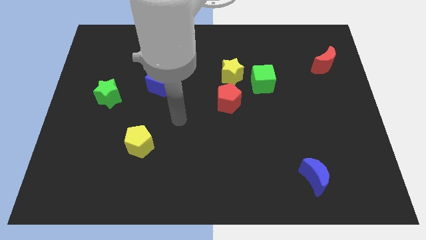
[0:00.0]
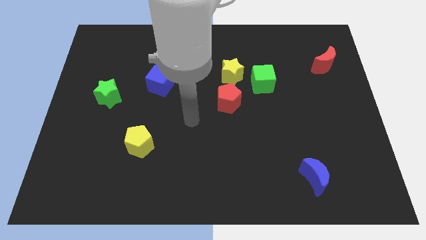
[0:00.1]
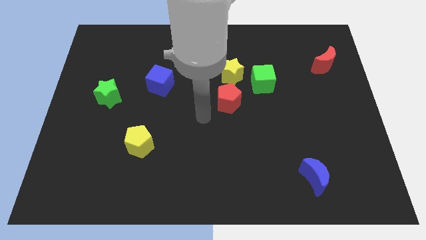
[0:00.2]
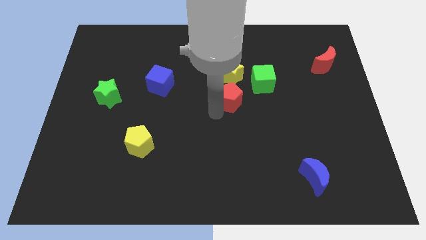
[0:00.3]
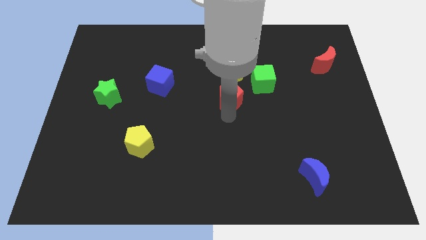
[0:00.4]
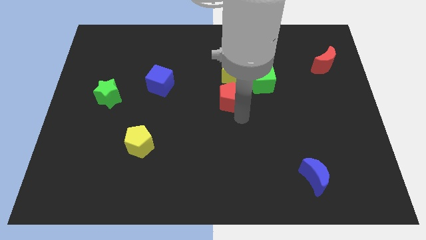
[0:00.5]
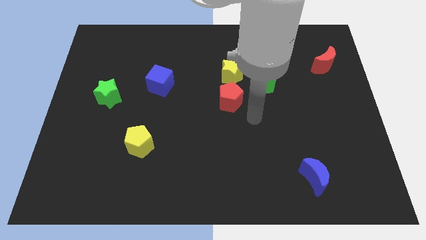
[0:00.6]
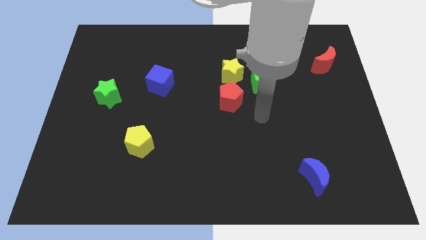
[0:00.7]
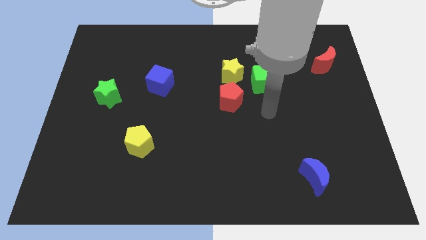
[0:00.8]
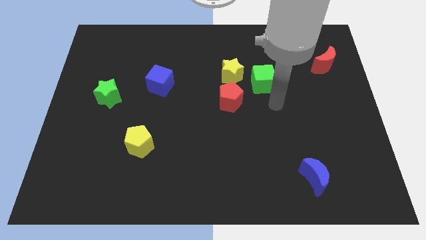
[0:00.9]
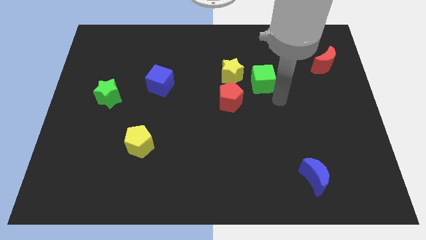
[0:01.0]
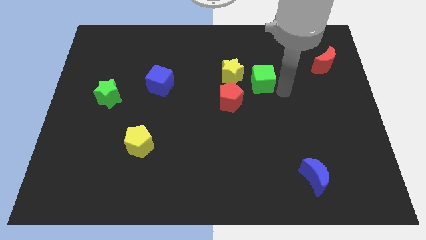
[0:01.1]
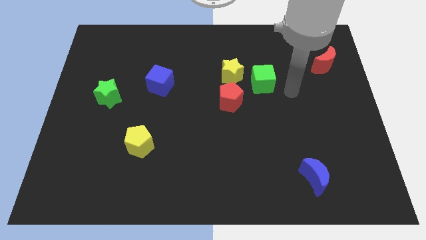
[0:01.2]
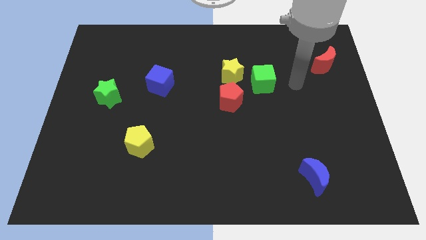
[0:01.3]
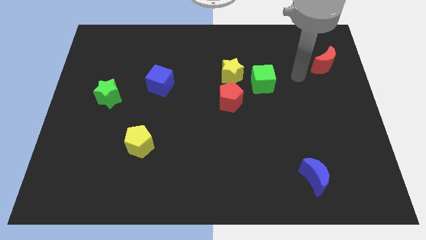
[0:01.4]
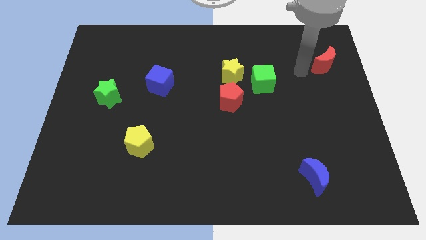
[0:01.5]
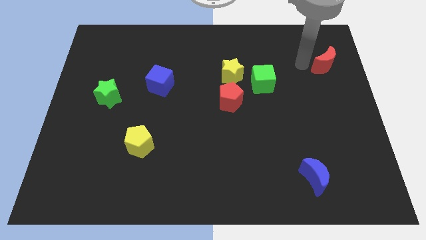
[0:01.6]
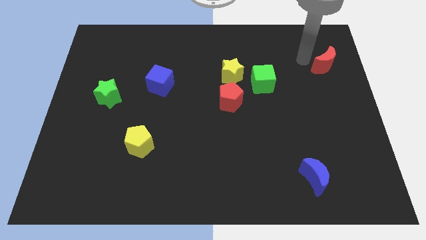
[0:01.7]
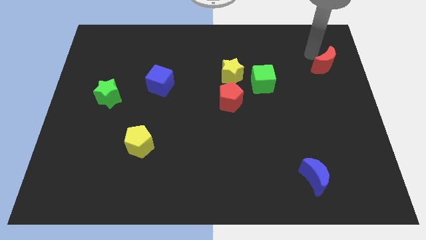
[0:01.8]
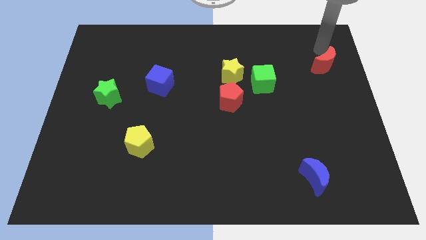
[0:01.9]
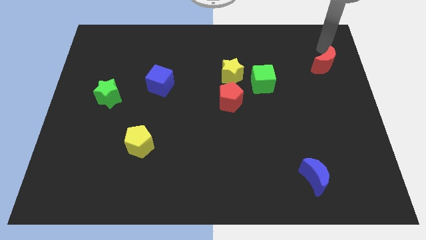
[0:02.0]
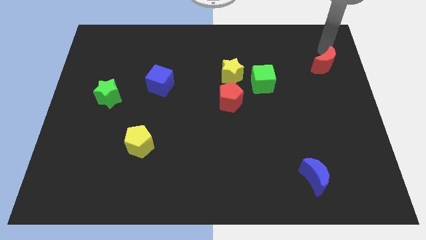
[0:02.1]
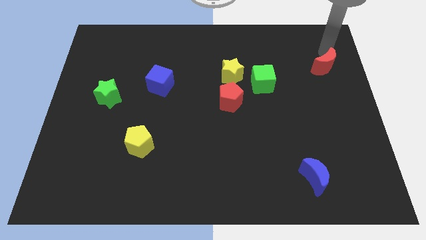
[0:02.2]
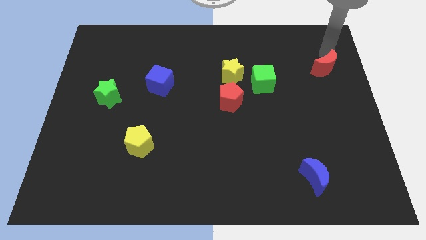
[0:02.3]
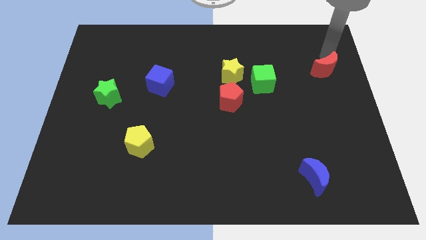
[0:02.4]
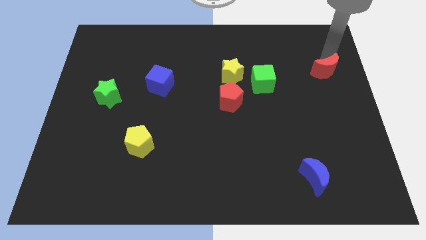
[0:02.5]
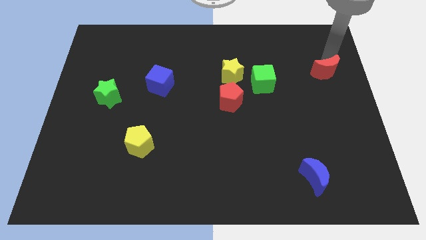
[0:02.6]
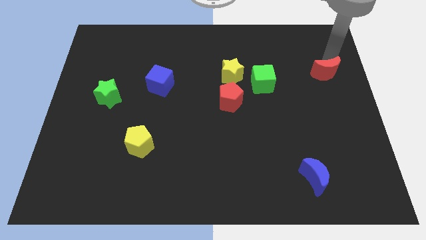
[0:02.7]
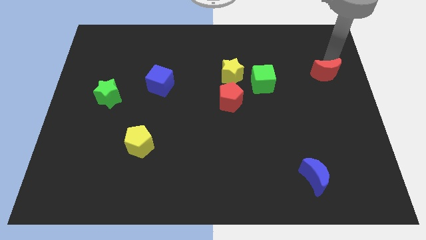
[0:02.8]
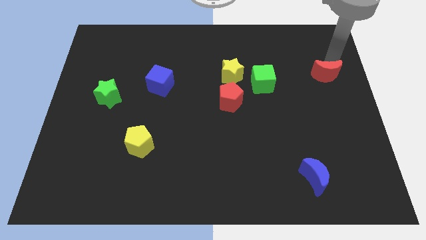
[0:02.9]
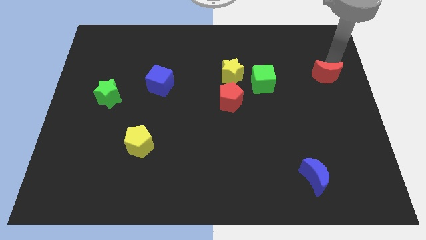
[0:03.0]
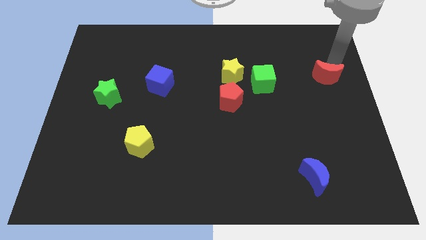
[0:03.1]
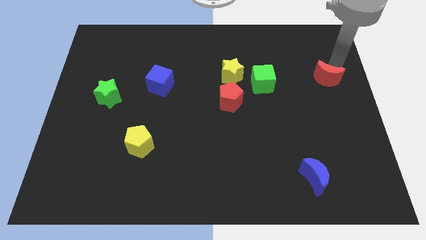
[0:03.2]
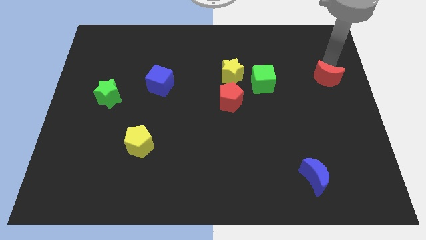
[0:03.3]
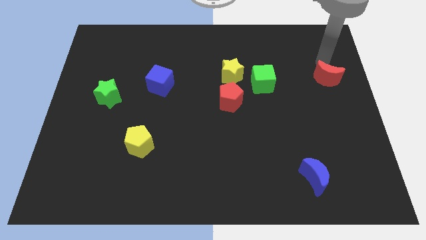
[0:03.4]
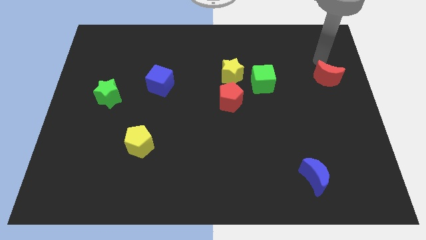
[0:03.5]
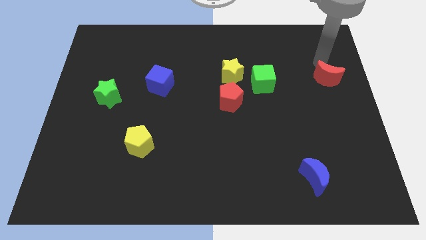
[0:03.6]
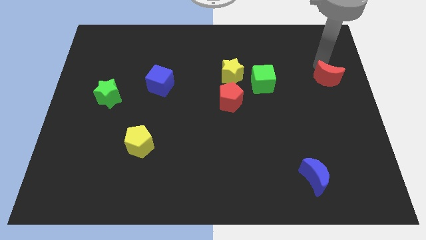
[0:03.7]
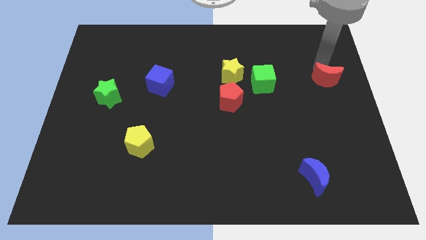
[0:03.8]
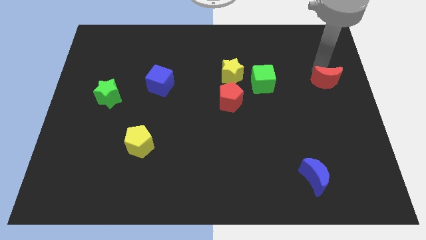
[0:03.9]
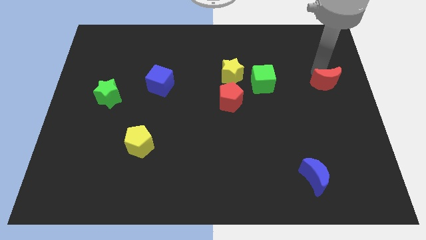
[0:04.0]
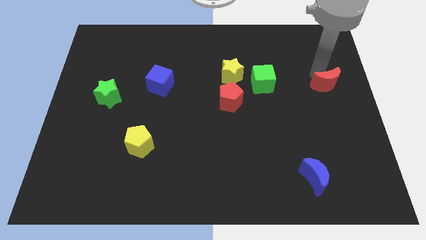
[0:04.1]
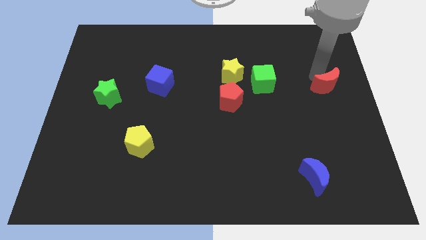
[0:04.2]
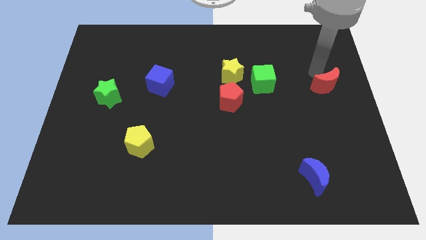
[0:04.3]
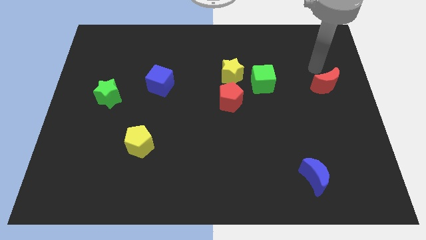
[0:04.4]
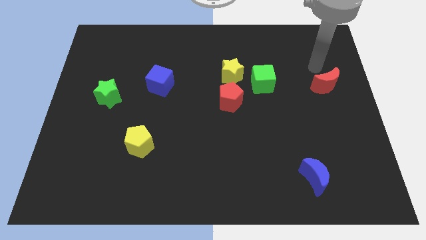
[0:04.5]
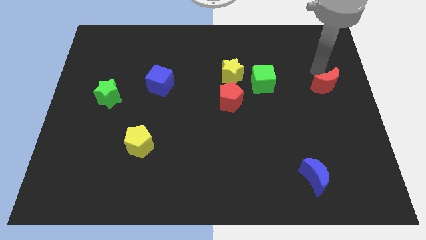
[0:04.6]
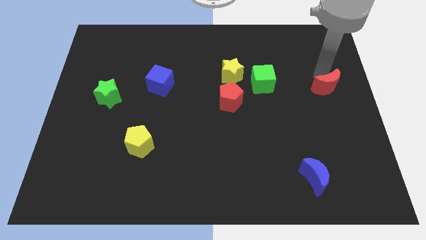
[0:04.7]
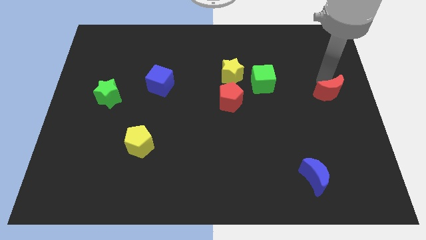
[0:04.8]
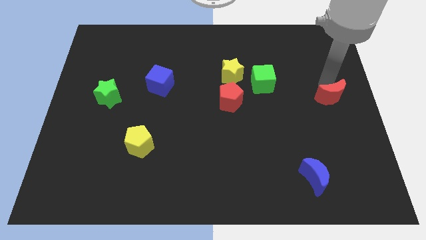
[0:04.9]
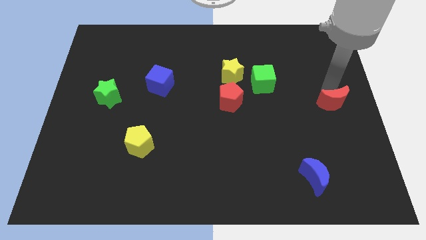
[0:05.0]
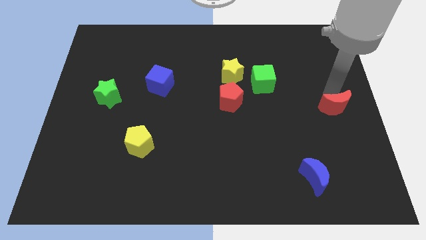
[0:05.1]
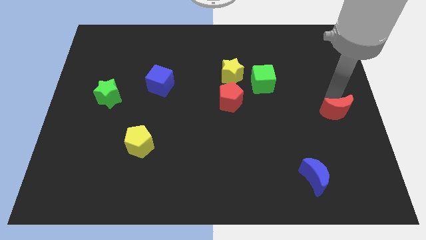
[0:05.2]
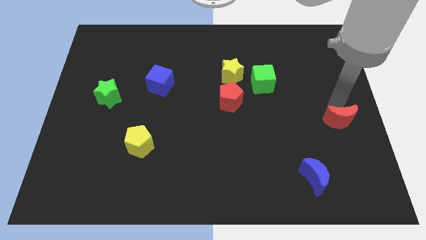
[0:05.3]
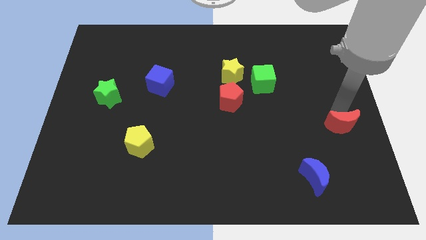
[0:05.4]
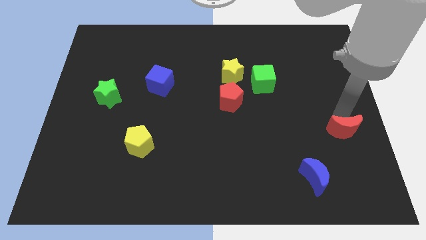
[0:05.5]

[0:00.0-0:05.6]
move the red moon downwards

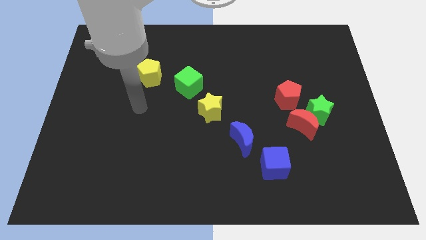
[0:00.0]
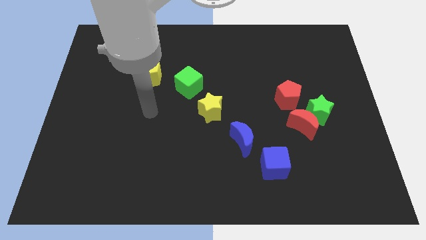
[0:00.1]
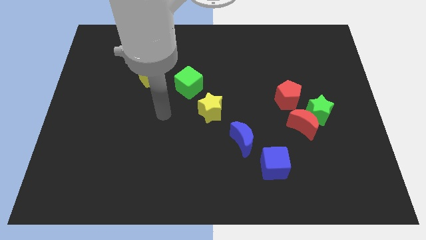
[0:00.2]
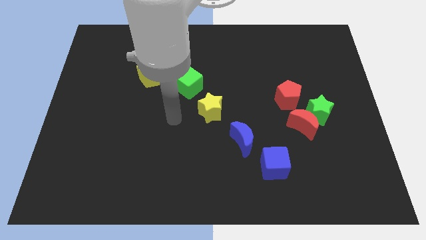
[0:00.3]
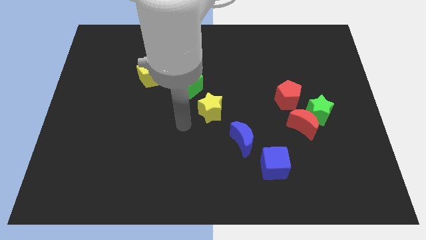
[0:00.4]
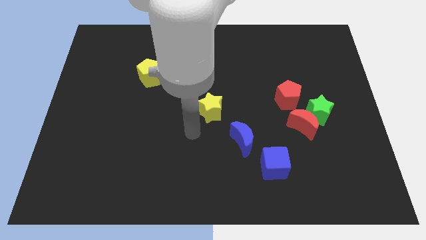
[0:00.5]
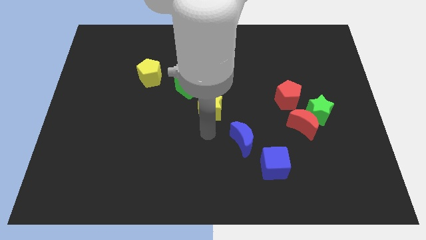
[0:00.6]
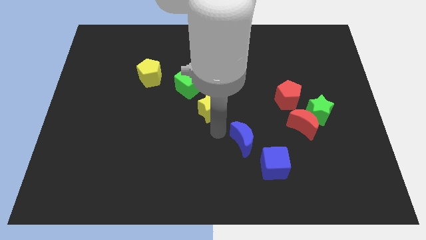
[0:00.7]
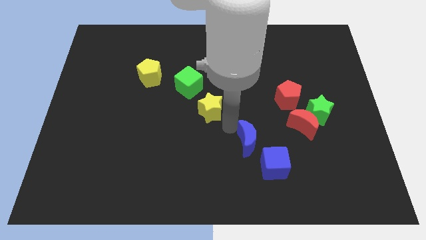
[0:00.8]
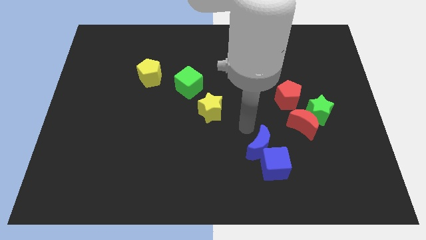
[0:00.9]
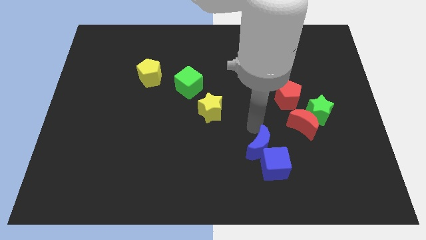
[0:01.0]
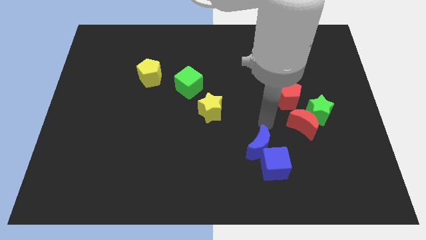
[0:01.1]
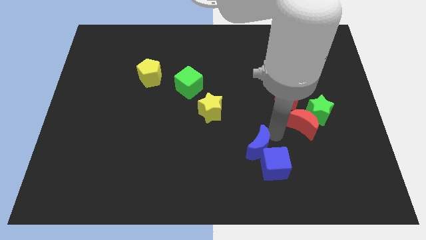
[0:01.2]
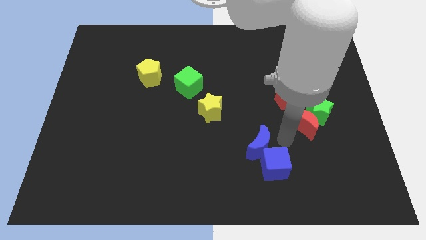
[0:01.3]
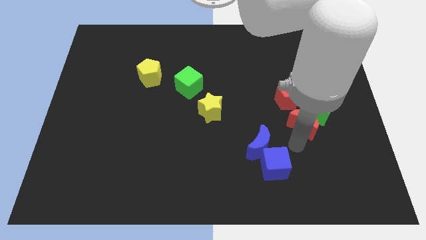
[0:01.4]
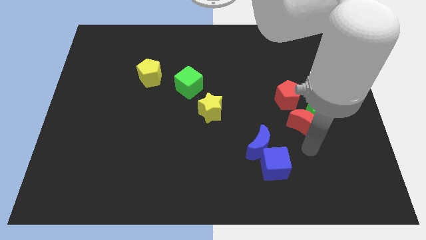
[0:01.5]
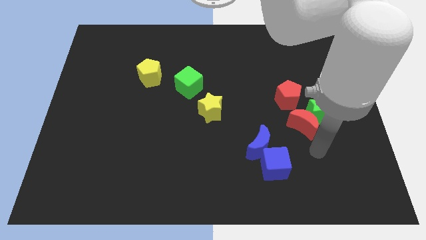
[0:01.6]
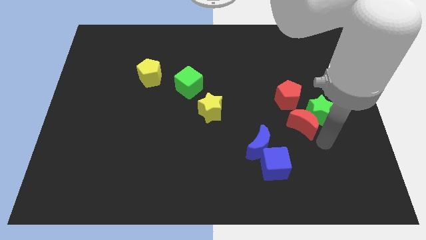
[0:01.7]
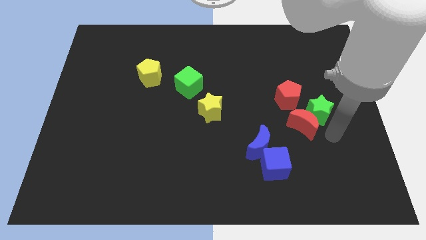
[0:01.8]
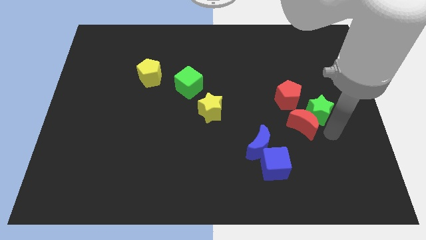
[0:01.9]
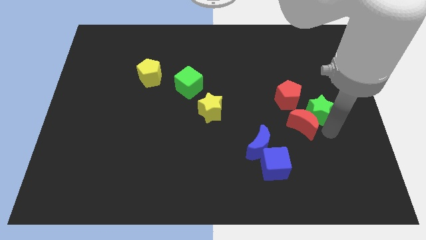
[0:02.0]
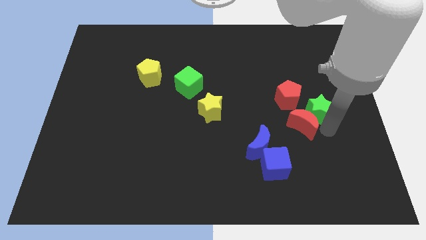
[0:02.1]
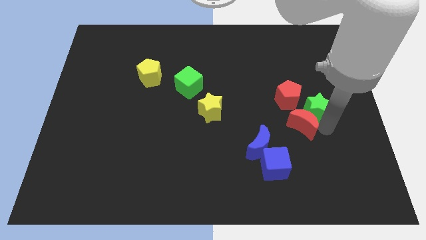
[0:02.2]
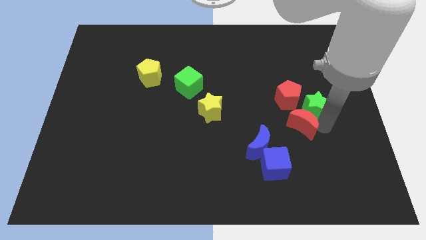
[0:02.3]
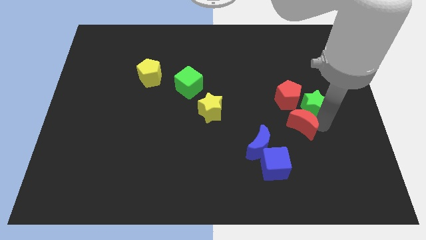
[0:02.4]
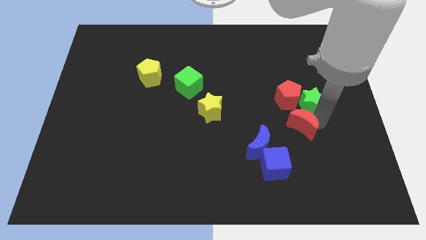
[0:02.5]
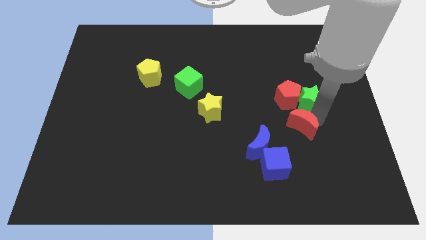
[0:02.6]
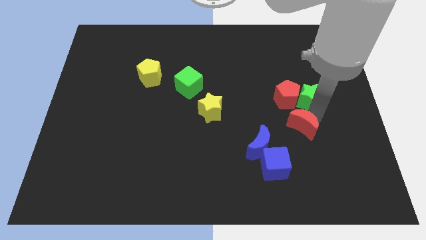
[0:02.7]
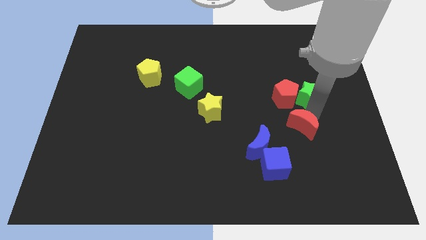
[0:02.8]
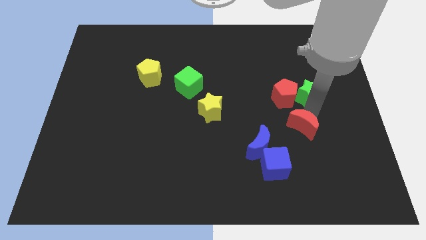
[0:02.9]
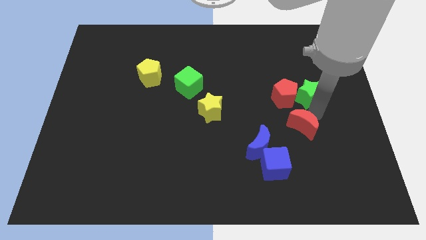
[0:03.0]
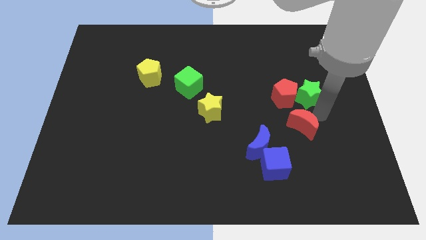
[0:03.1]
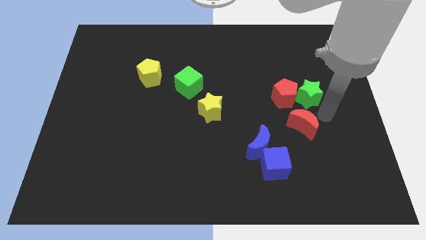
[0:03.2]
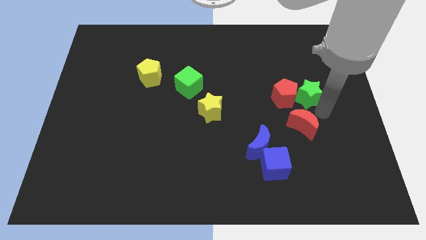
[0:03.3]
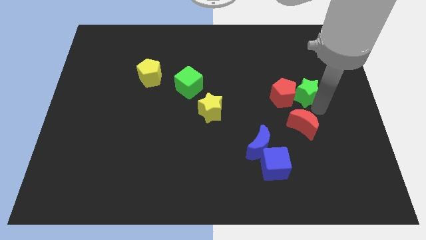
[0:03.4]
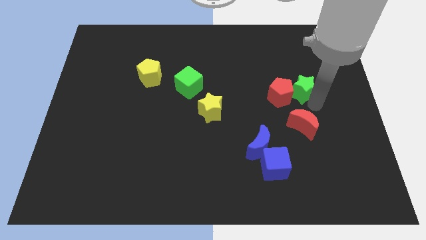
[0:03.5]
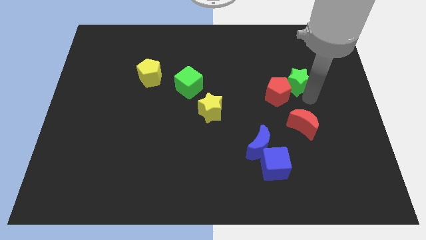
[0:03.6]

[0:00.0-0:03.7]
move the green star diagonally upwards and to the left a bit
